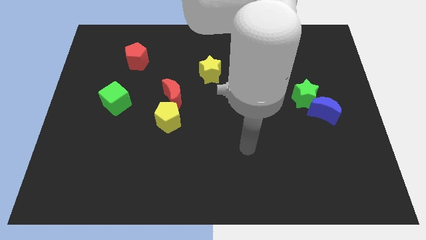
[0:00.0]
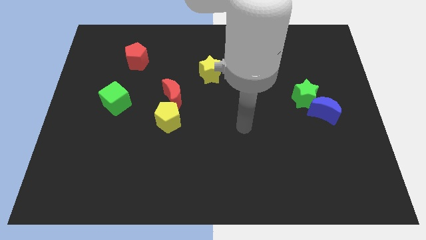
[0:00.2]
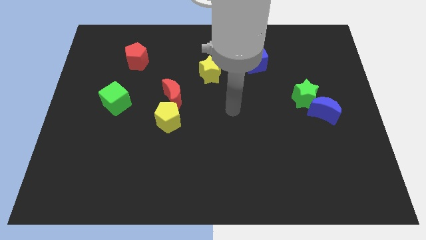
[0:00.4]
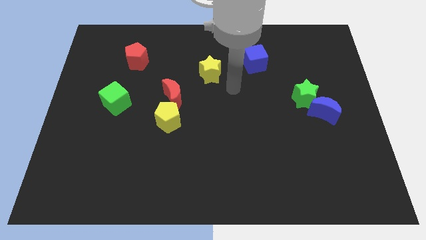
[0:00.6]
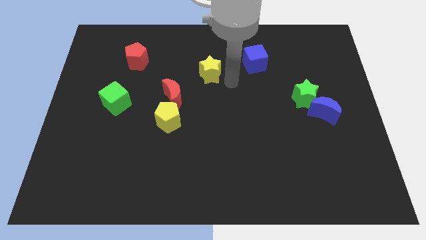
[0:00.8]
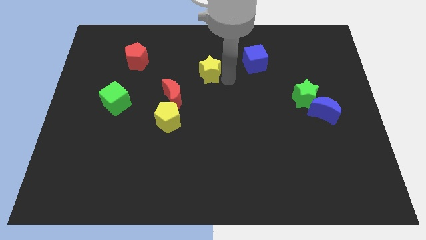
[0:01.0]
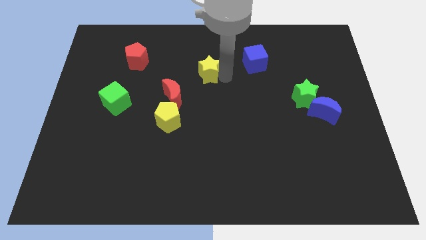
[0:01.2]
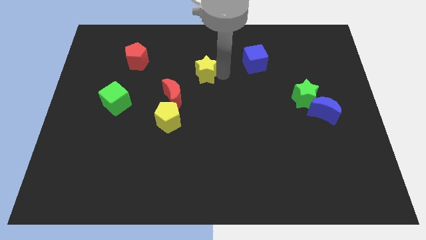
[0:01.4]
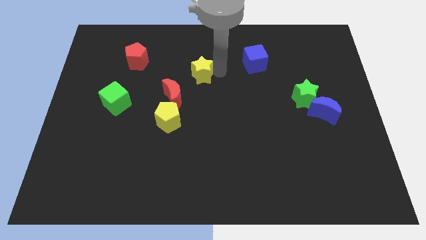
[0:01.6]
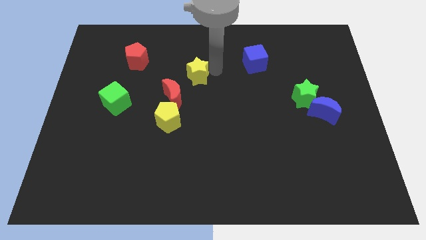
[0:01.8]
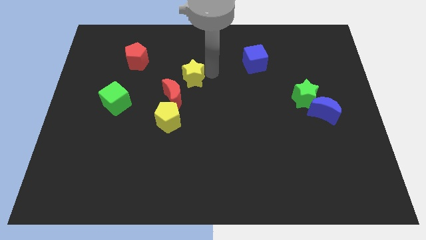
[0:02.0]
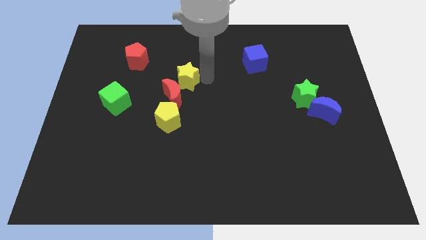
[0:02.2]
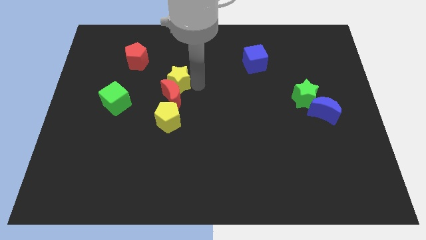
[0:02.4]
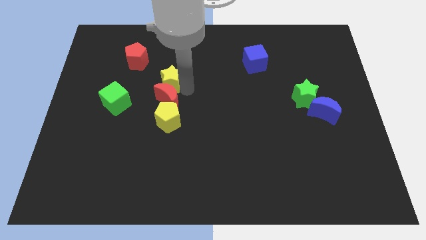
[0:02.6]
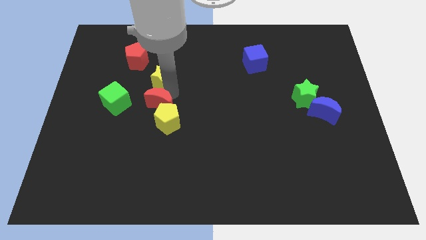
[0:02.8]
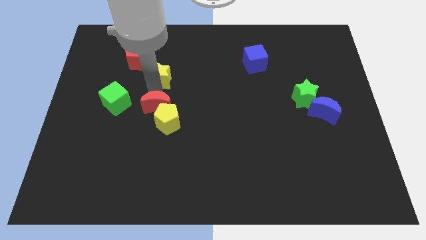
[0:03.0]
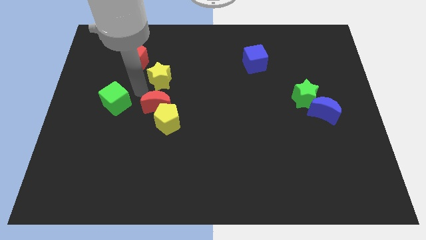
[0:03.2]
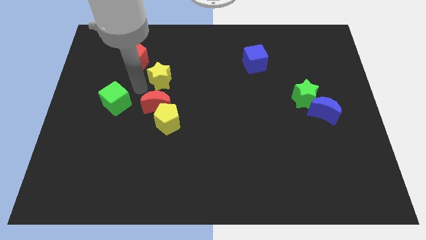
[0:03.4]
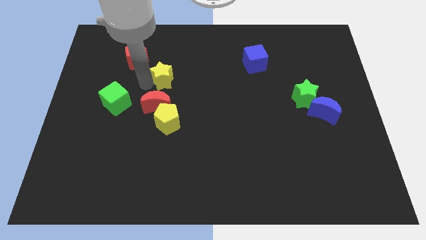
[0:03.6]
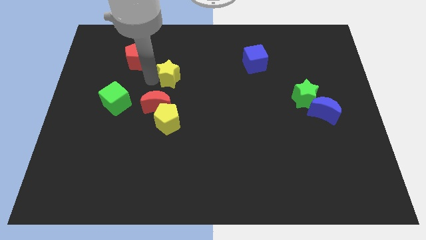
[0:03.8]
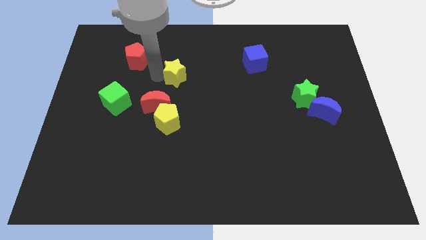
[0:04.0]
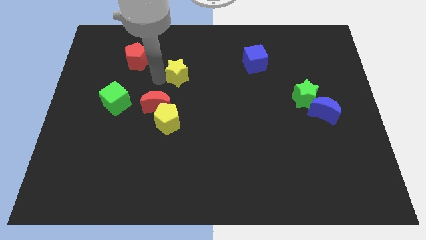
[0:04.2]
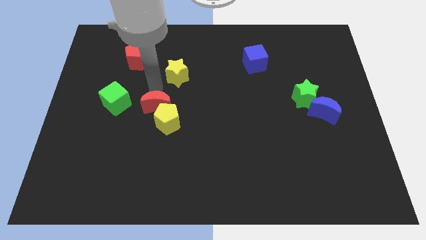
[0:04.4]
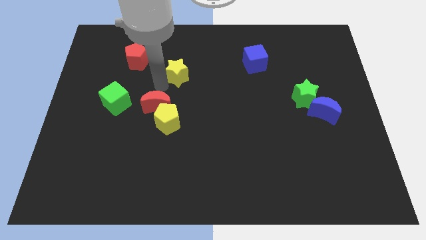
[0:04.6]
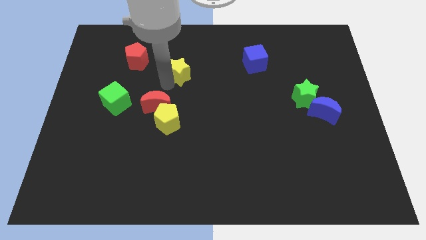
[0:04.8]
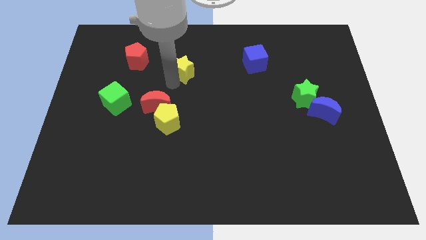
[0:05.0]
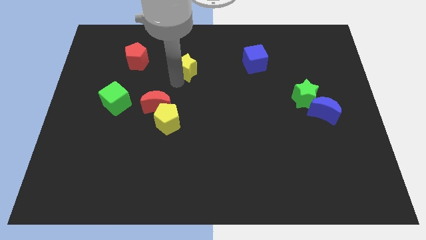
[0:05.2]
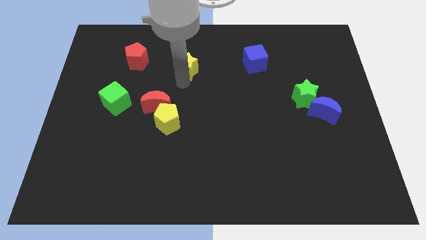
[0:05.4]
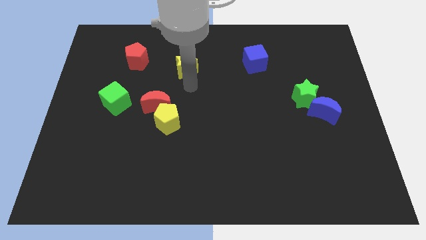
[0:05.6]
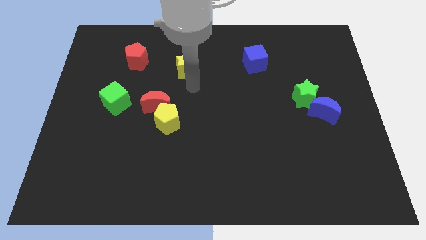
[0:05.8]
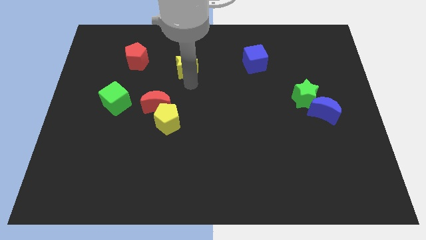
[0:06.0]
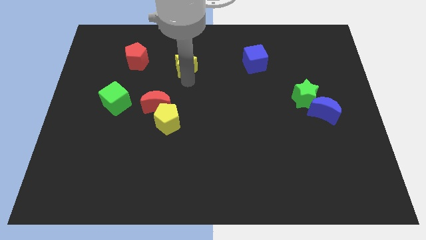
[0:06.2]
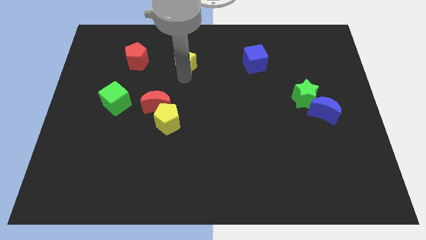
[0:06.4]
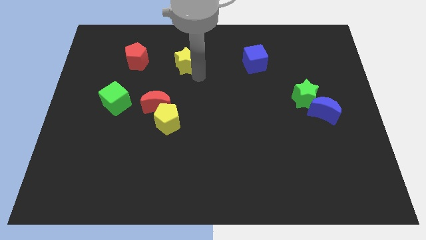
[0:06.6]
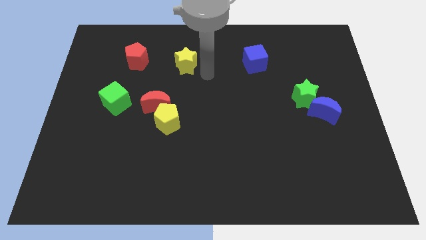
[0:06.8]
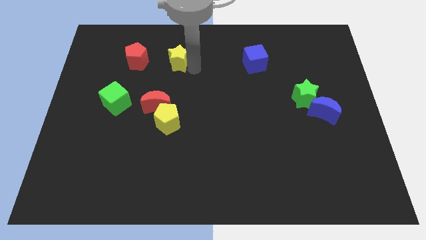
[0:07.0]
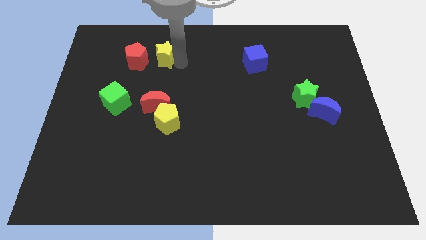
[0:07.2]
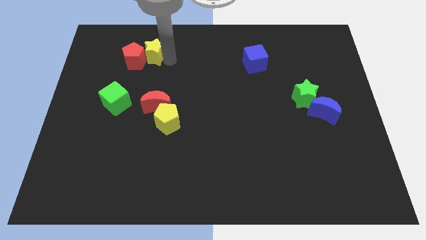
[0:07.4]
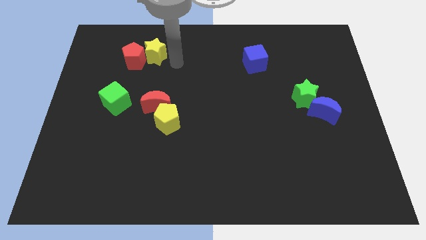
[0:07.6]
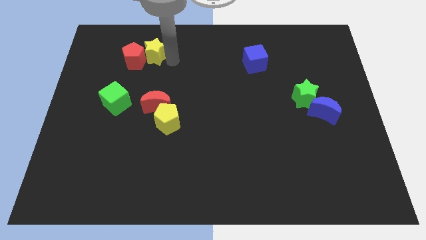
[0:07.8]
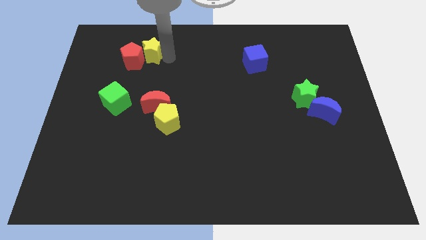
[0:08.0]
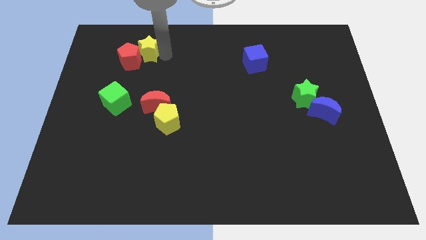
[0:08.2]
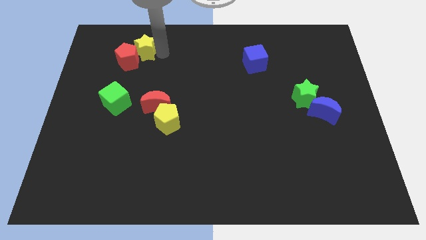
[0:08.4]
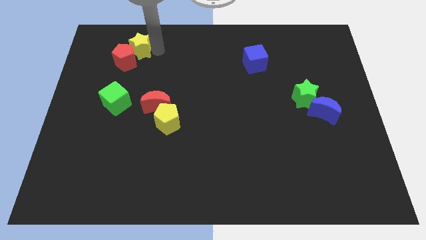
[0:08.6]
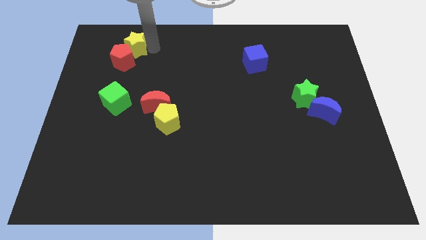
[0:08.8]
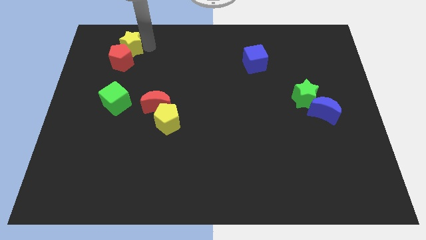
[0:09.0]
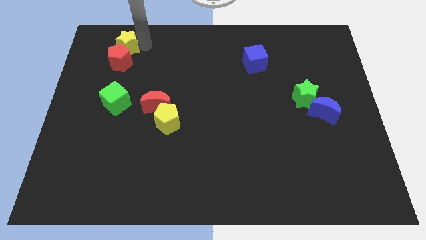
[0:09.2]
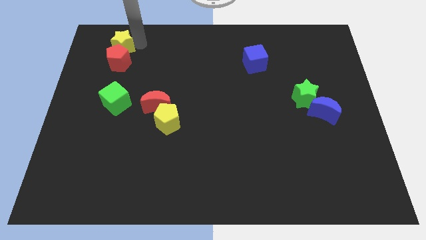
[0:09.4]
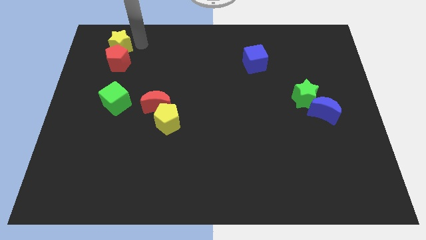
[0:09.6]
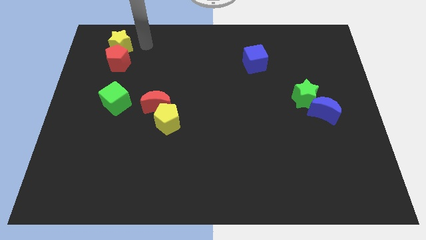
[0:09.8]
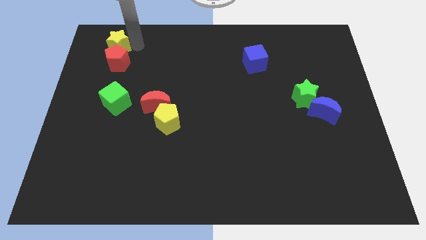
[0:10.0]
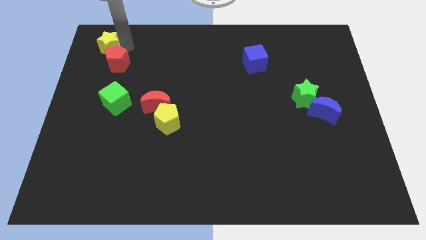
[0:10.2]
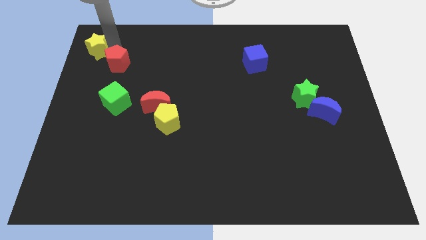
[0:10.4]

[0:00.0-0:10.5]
move the yellow star to the top left

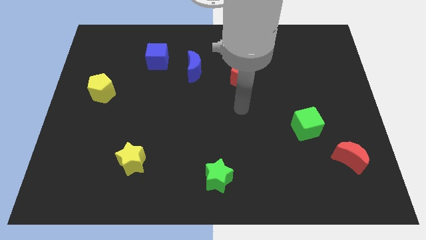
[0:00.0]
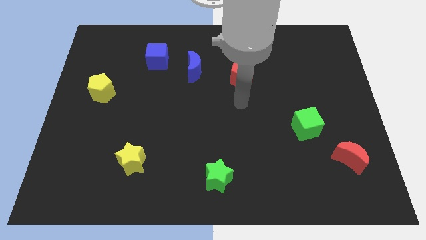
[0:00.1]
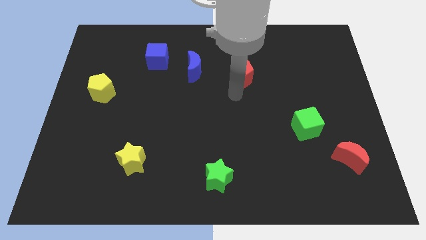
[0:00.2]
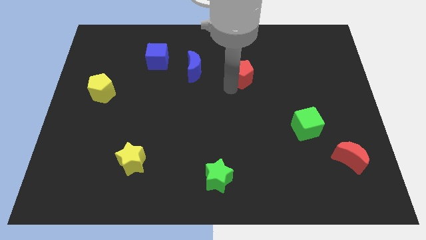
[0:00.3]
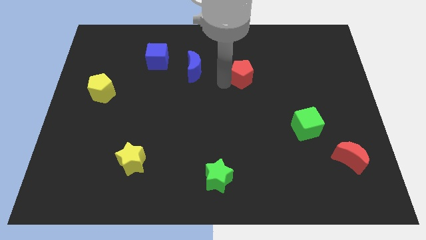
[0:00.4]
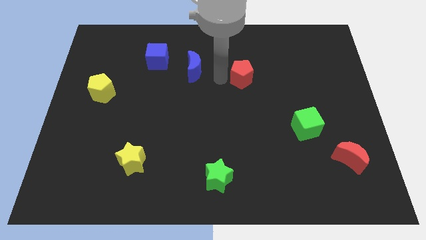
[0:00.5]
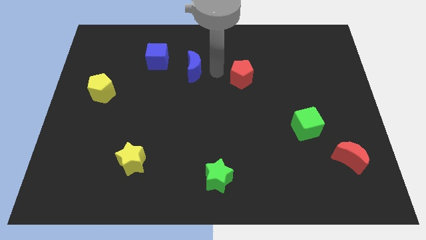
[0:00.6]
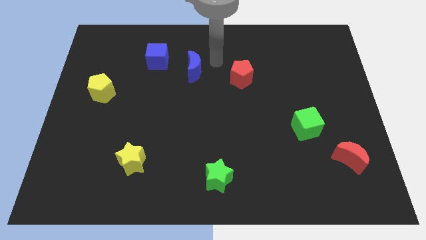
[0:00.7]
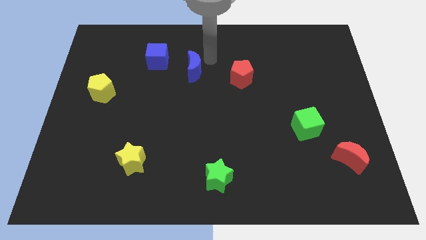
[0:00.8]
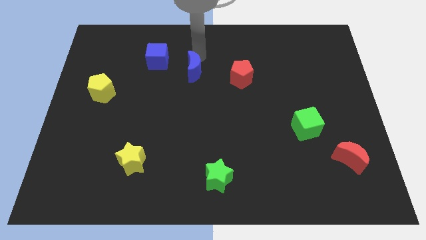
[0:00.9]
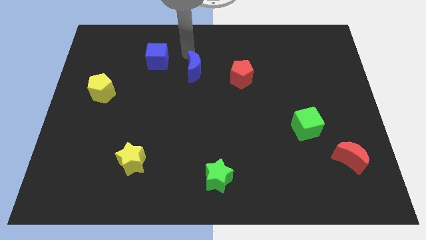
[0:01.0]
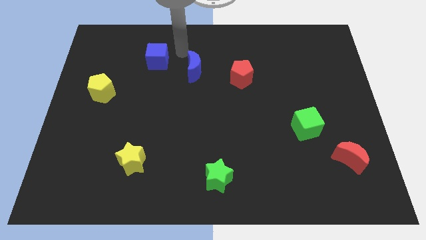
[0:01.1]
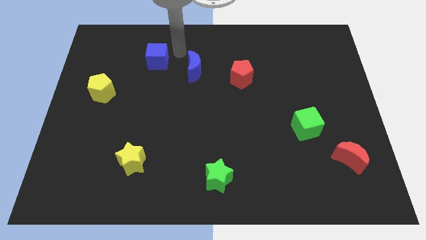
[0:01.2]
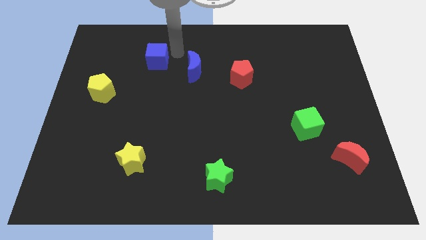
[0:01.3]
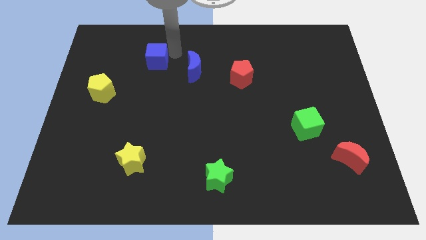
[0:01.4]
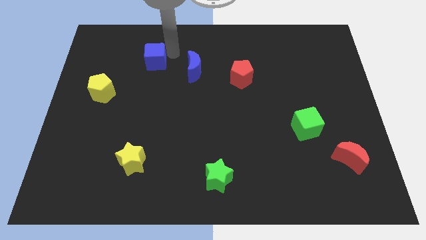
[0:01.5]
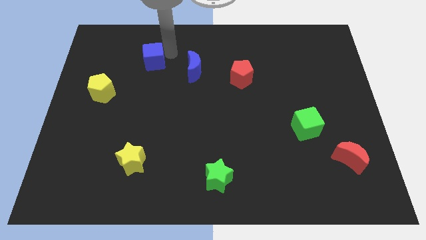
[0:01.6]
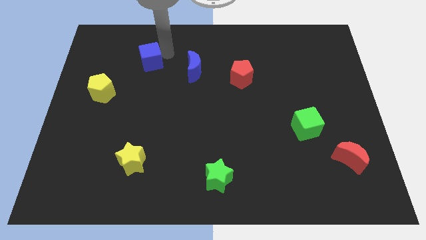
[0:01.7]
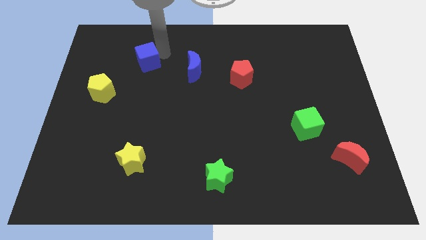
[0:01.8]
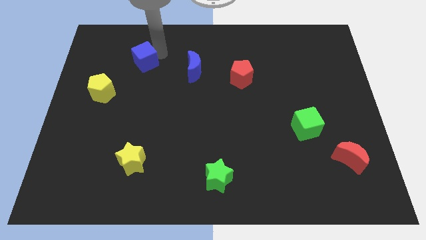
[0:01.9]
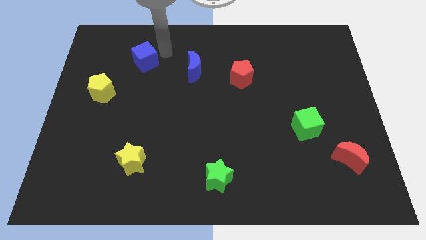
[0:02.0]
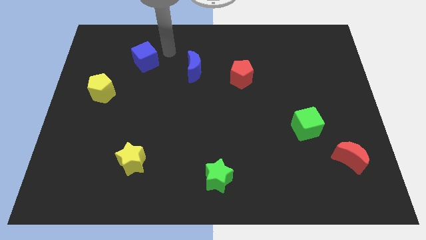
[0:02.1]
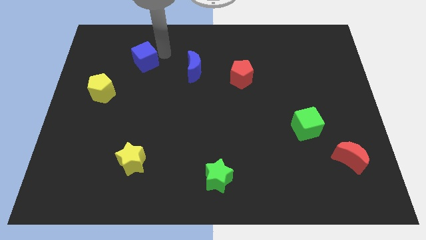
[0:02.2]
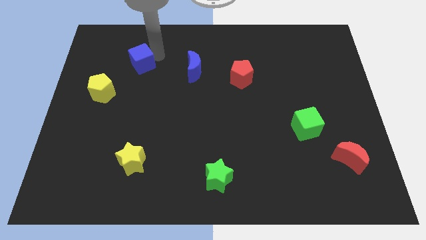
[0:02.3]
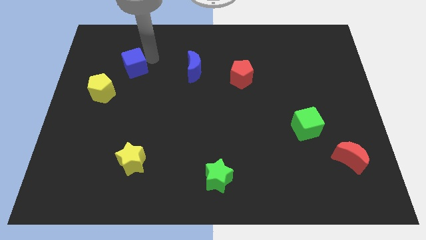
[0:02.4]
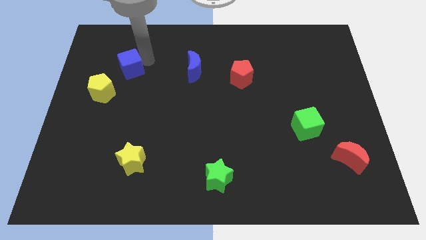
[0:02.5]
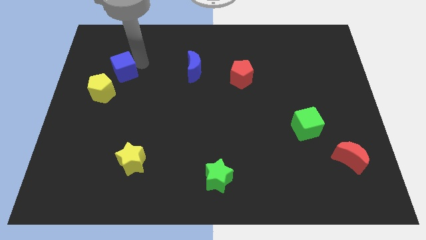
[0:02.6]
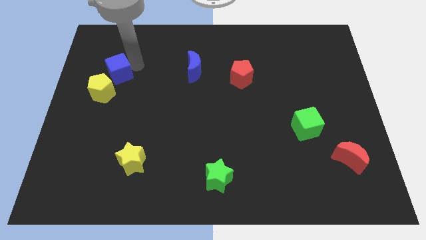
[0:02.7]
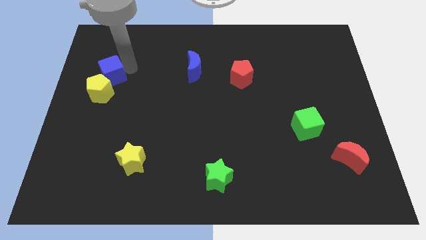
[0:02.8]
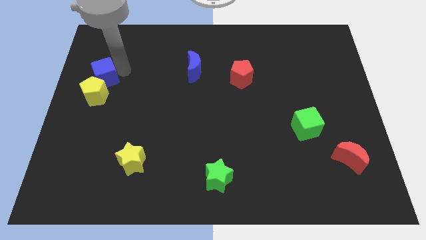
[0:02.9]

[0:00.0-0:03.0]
put the blue cube to the left side of the board
